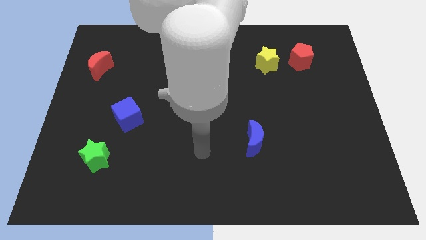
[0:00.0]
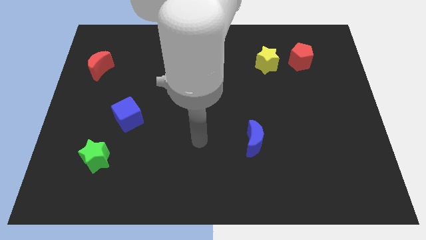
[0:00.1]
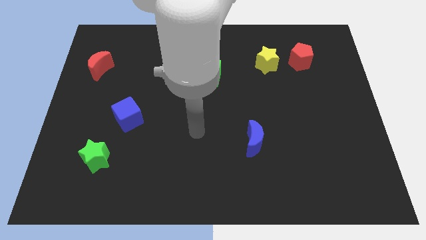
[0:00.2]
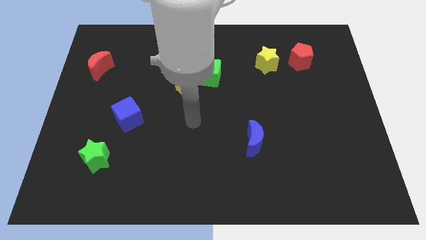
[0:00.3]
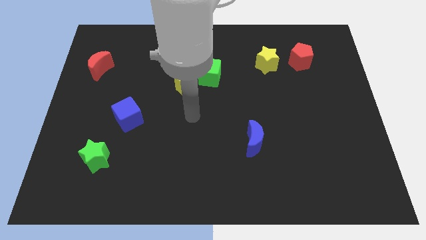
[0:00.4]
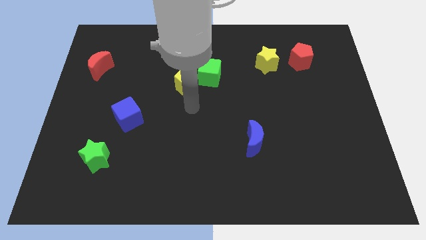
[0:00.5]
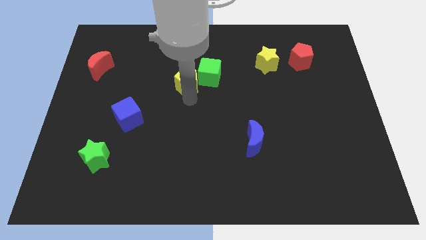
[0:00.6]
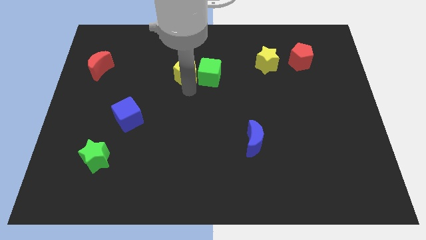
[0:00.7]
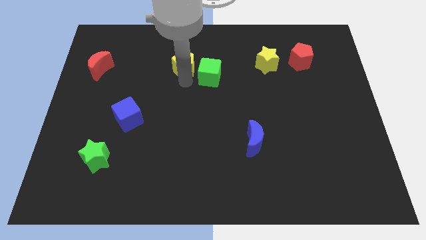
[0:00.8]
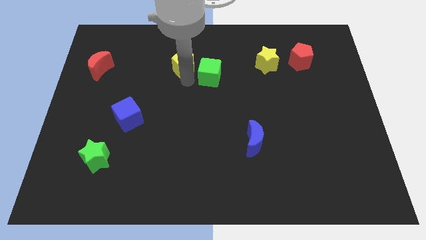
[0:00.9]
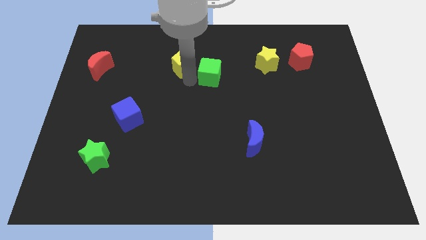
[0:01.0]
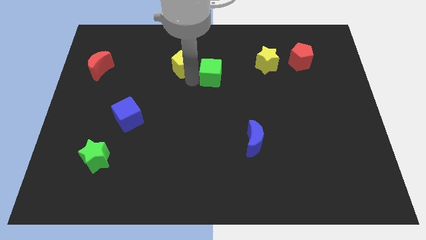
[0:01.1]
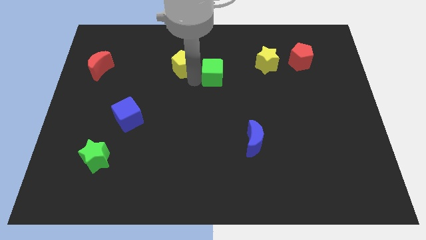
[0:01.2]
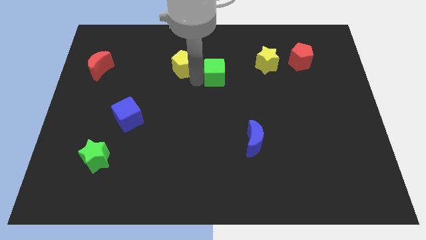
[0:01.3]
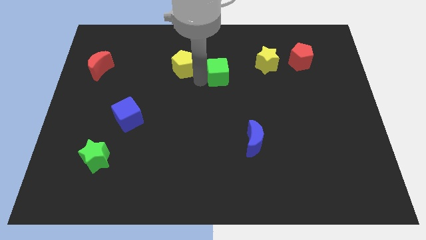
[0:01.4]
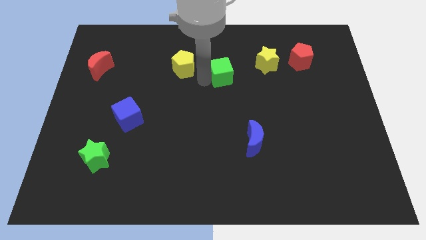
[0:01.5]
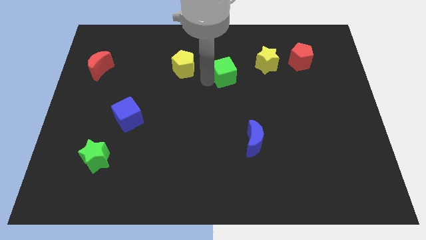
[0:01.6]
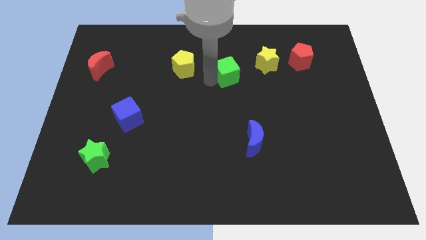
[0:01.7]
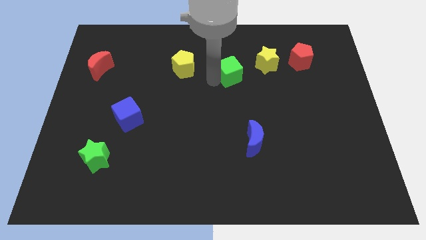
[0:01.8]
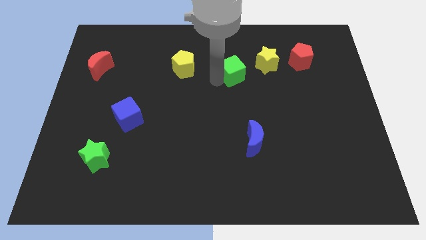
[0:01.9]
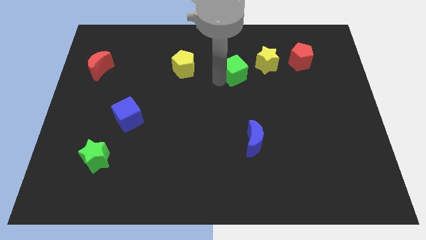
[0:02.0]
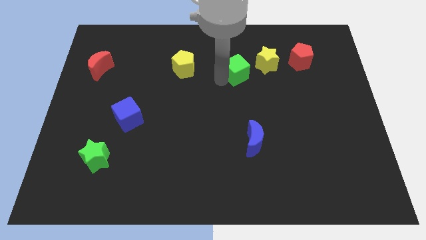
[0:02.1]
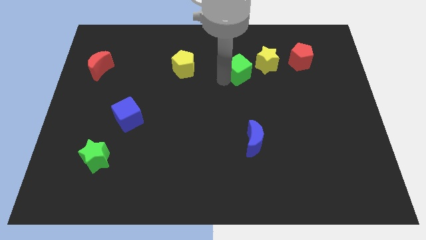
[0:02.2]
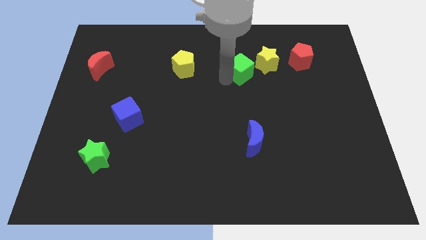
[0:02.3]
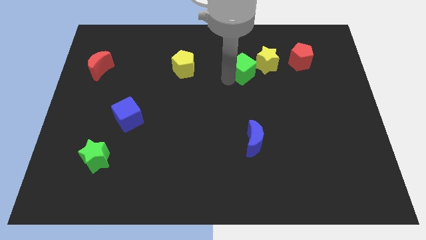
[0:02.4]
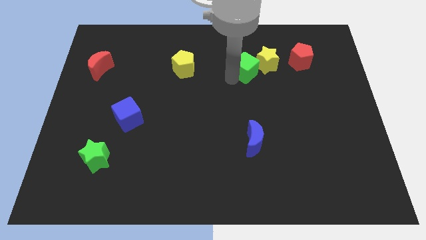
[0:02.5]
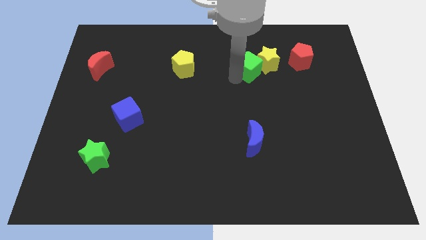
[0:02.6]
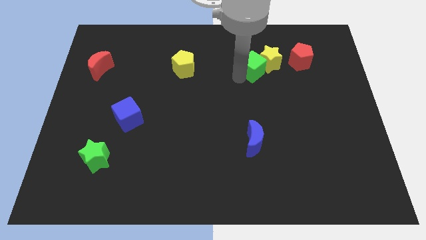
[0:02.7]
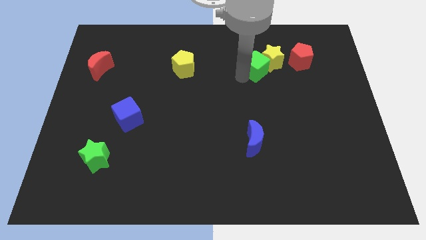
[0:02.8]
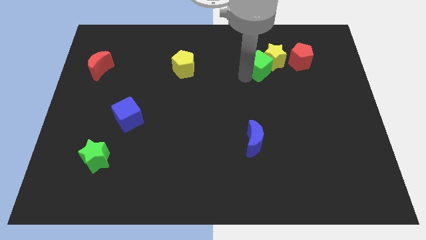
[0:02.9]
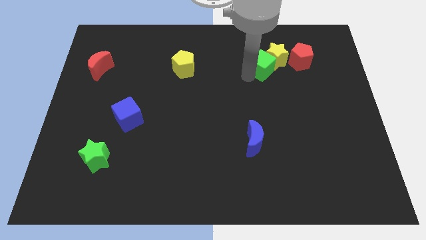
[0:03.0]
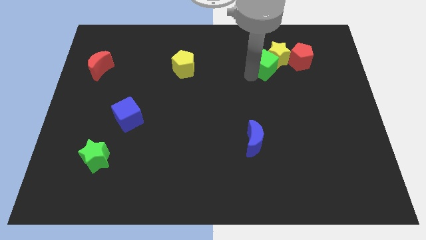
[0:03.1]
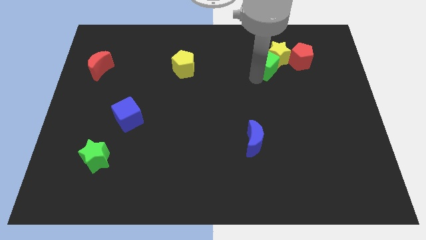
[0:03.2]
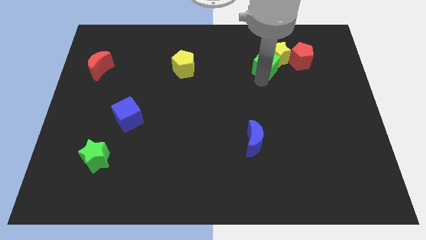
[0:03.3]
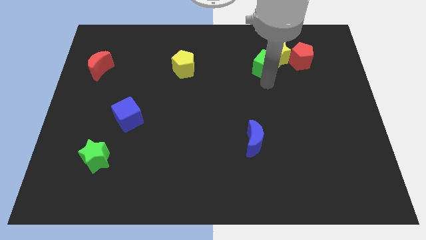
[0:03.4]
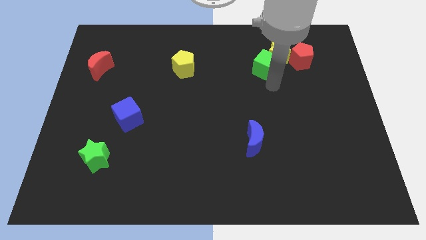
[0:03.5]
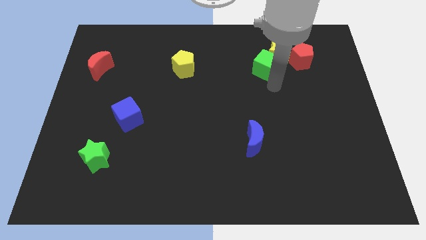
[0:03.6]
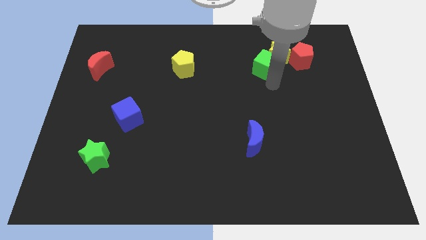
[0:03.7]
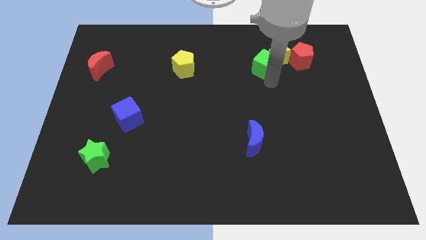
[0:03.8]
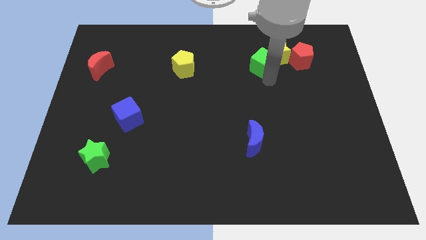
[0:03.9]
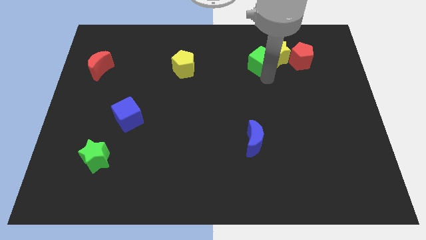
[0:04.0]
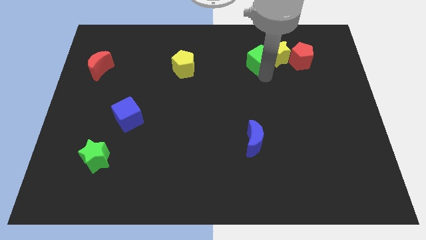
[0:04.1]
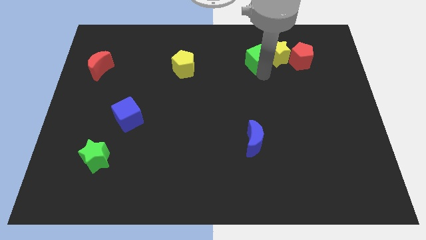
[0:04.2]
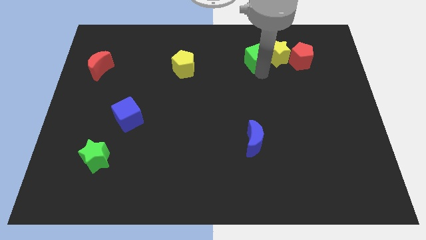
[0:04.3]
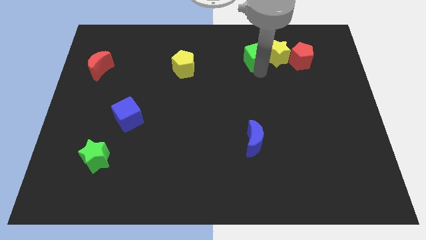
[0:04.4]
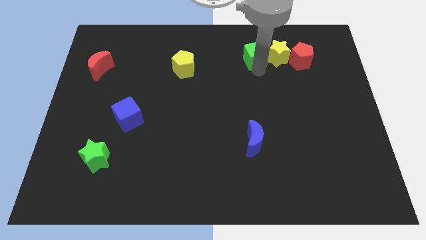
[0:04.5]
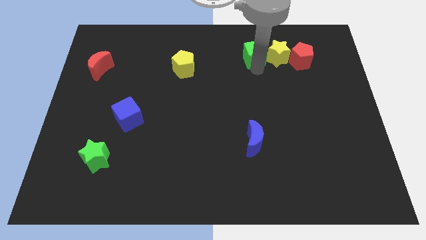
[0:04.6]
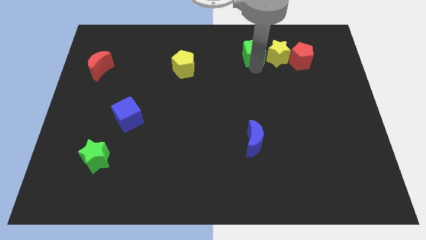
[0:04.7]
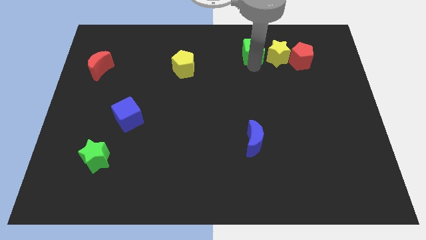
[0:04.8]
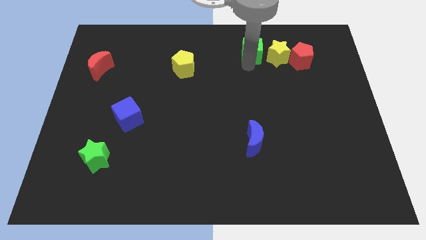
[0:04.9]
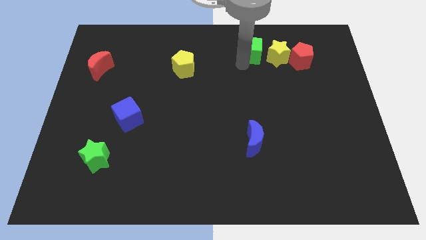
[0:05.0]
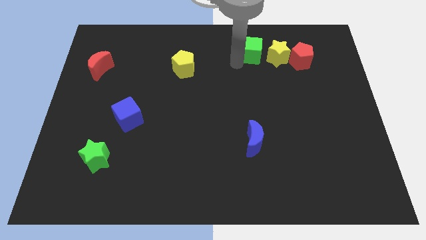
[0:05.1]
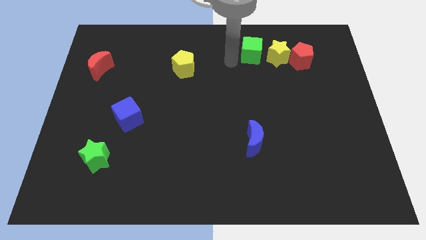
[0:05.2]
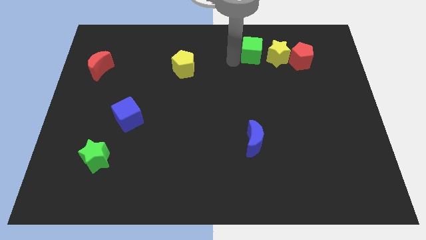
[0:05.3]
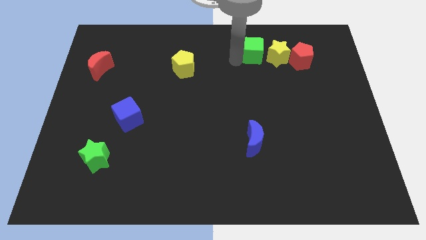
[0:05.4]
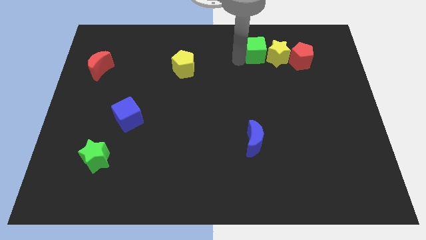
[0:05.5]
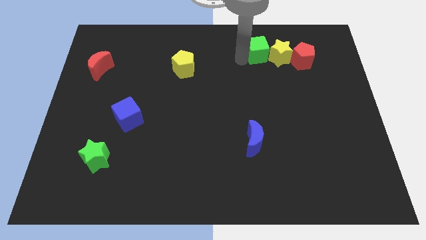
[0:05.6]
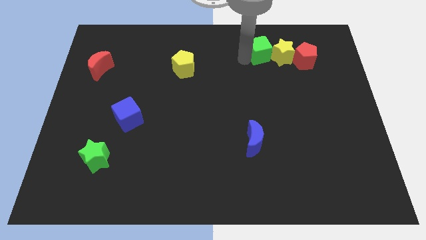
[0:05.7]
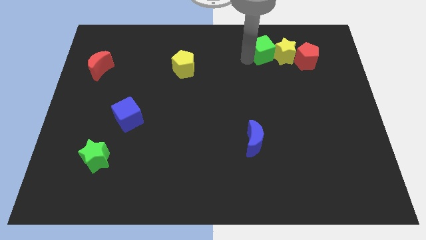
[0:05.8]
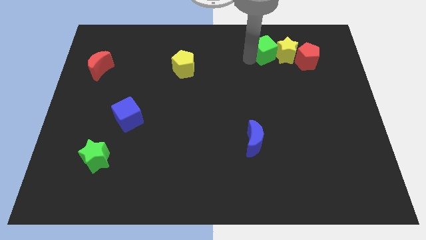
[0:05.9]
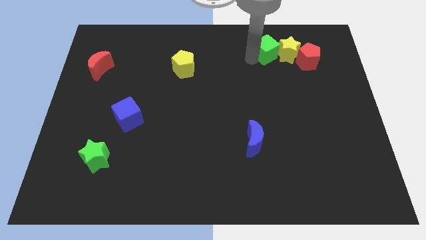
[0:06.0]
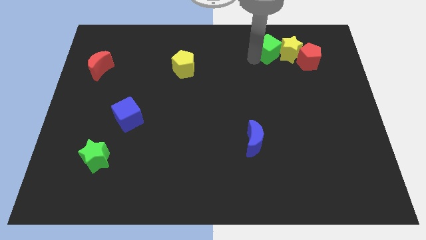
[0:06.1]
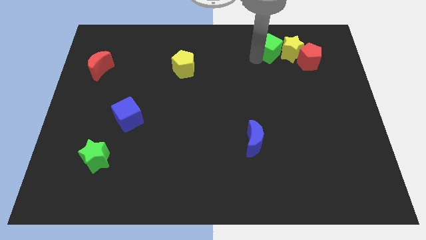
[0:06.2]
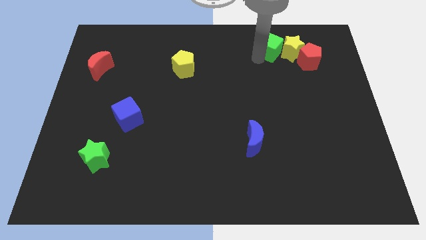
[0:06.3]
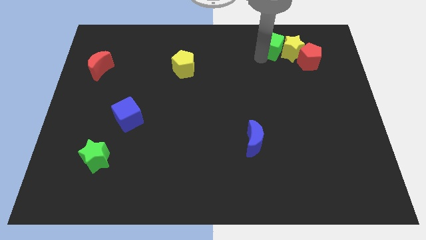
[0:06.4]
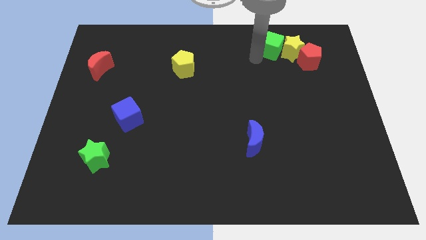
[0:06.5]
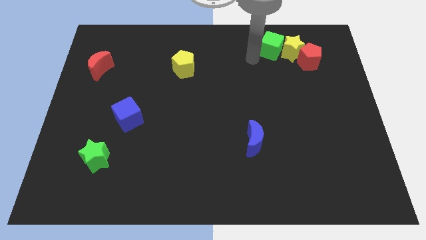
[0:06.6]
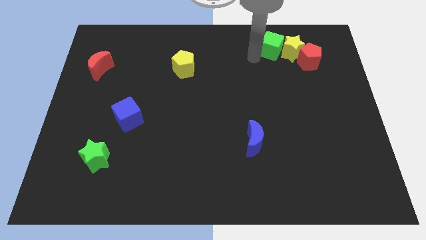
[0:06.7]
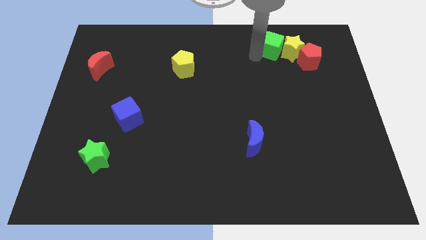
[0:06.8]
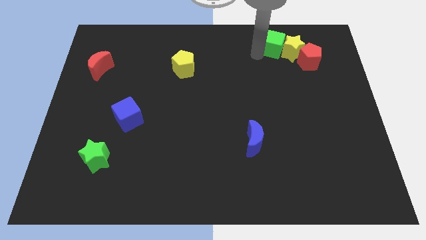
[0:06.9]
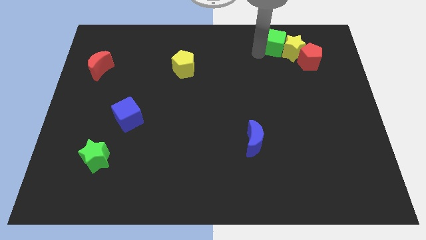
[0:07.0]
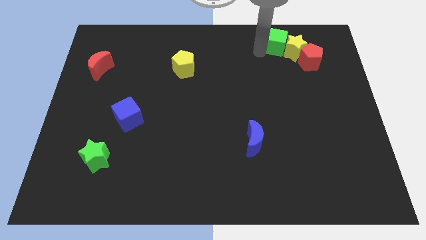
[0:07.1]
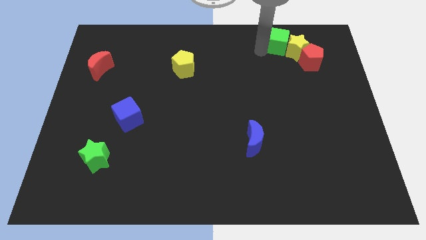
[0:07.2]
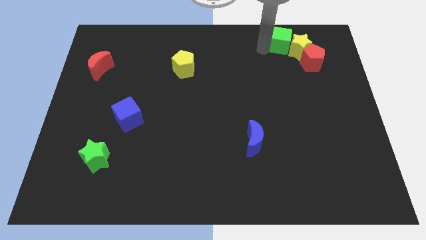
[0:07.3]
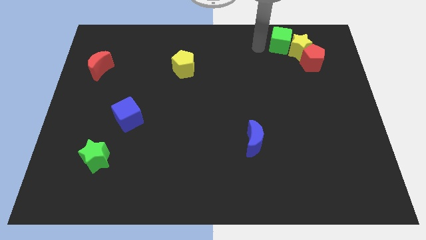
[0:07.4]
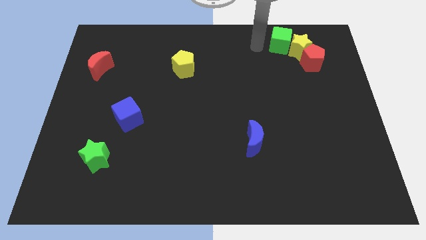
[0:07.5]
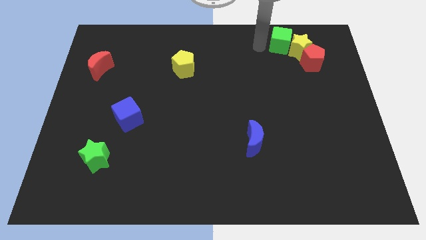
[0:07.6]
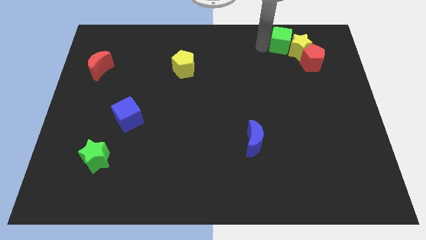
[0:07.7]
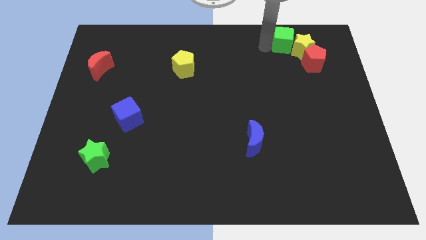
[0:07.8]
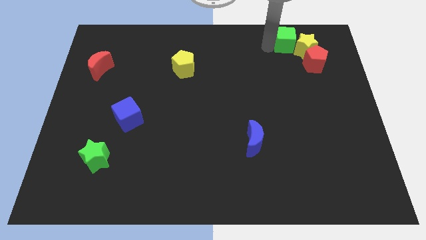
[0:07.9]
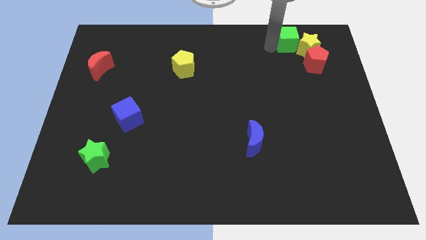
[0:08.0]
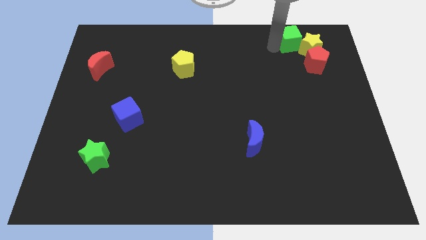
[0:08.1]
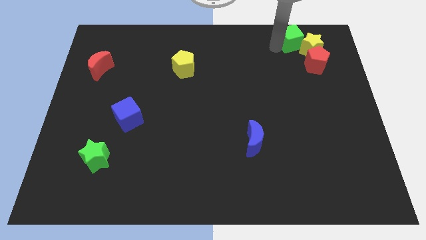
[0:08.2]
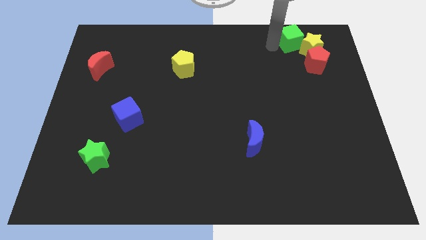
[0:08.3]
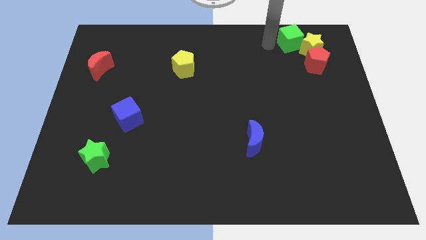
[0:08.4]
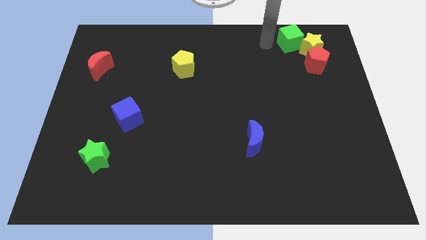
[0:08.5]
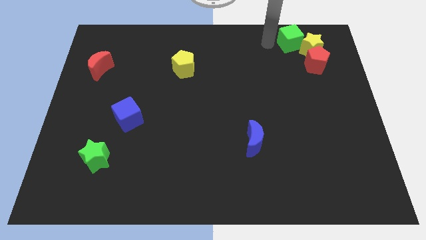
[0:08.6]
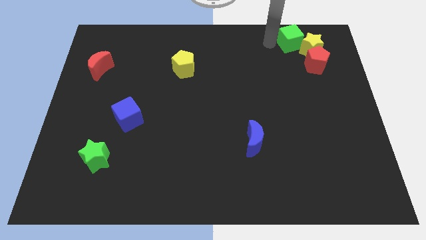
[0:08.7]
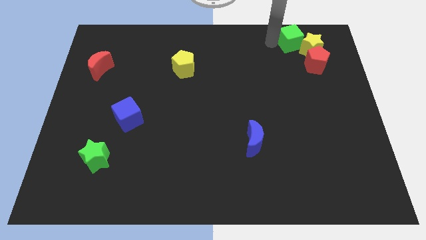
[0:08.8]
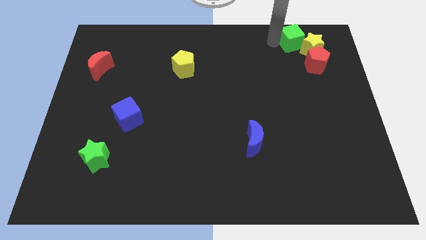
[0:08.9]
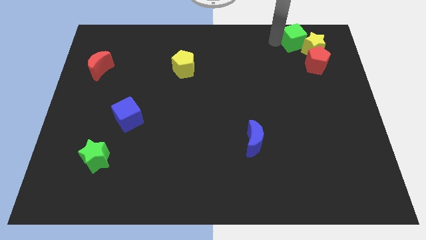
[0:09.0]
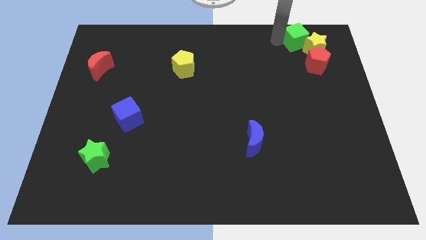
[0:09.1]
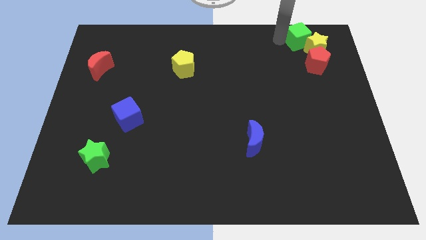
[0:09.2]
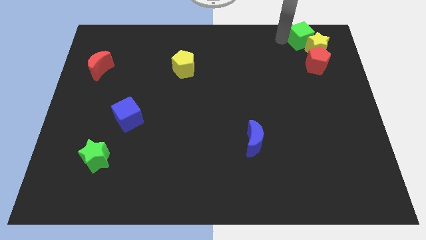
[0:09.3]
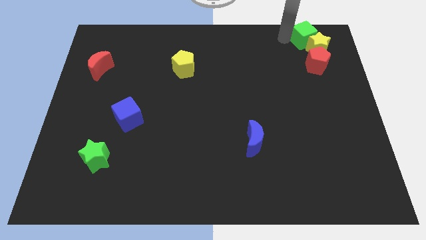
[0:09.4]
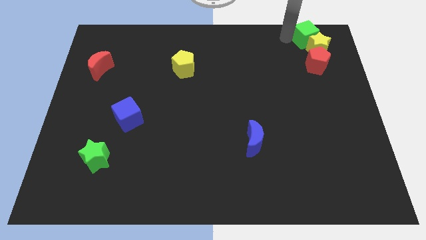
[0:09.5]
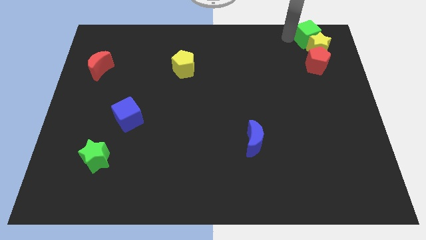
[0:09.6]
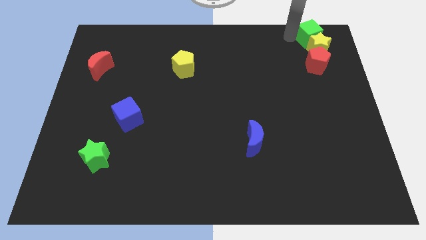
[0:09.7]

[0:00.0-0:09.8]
move the green cube to the top right
